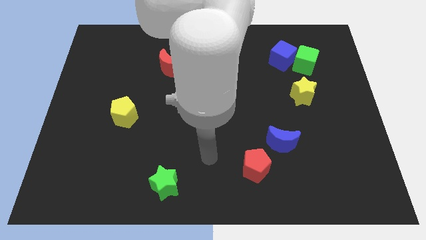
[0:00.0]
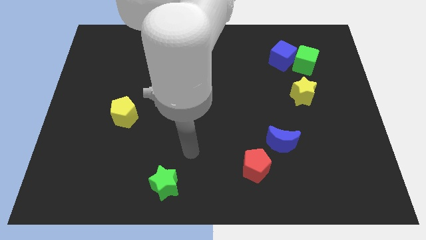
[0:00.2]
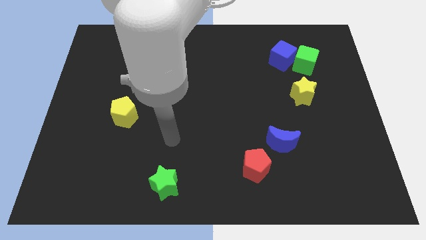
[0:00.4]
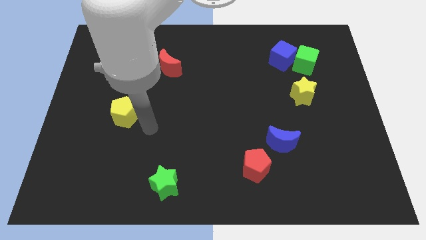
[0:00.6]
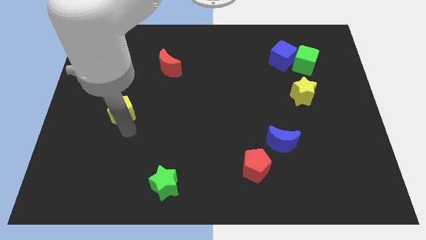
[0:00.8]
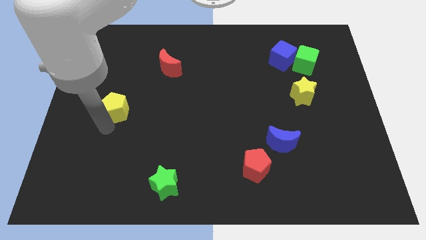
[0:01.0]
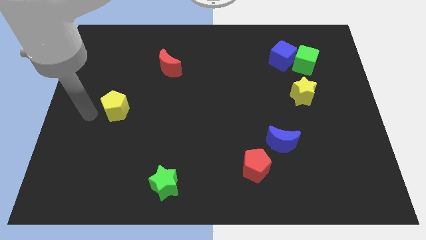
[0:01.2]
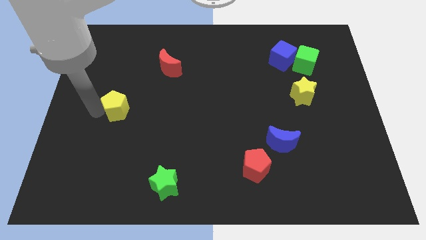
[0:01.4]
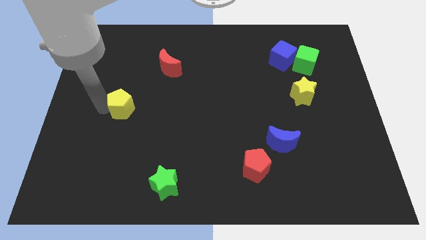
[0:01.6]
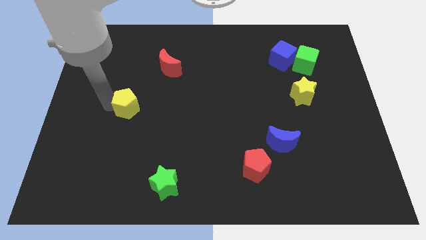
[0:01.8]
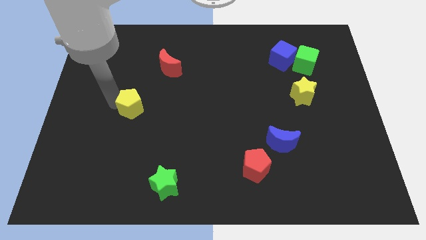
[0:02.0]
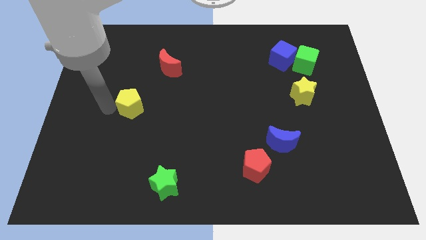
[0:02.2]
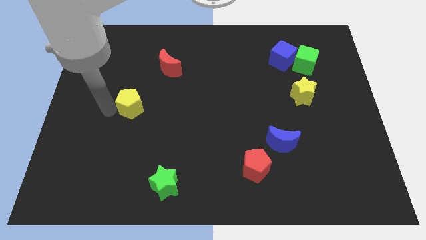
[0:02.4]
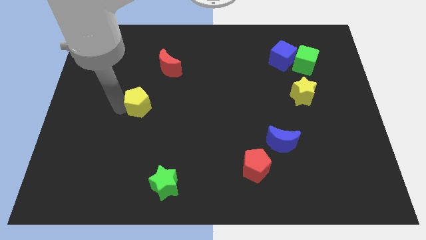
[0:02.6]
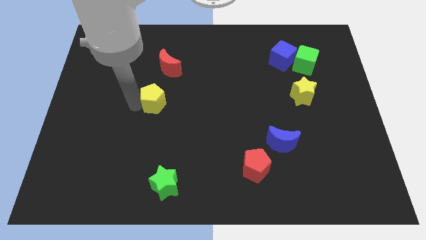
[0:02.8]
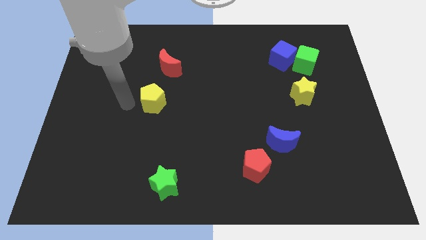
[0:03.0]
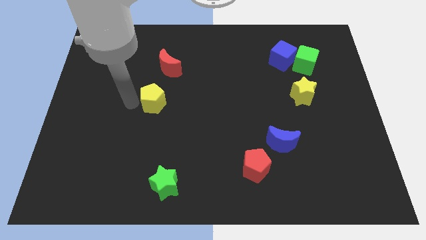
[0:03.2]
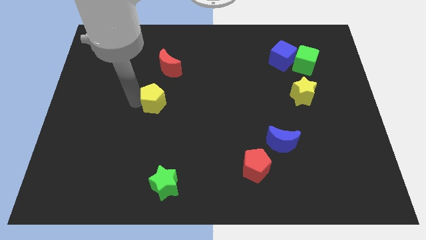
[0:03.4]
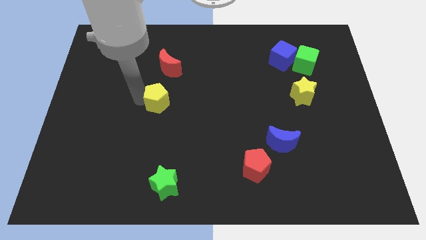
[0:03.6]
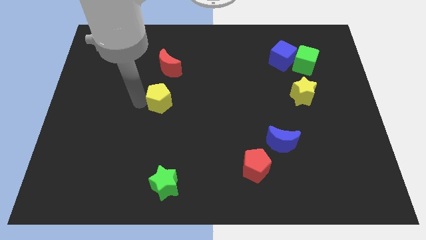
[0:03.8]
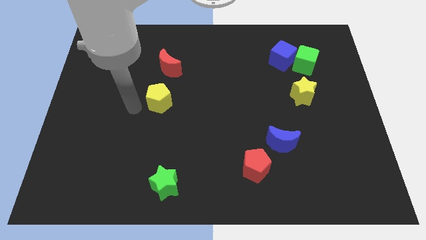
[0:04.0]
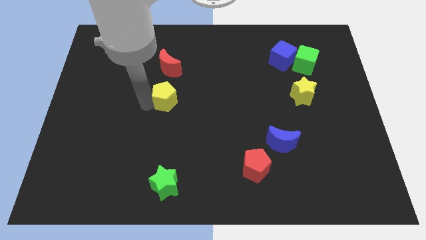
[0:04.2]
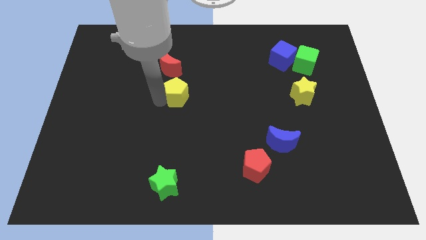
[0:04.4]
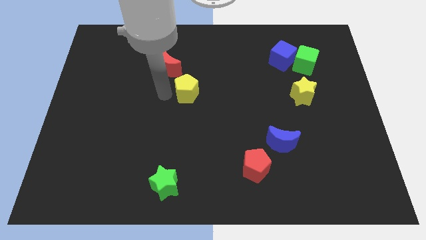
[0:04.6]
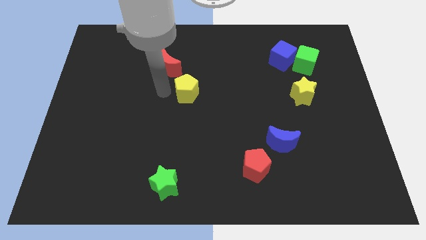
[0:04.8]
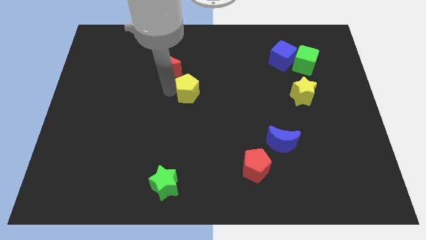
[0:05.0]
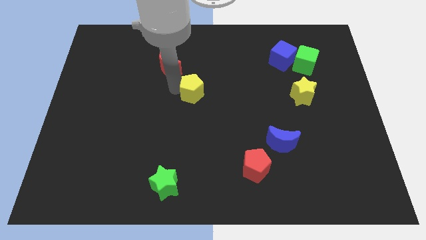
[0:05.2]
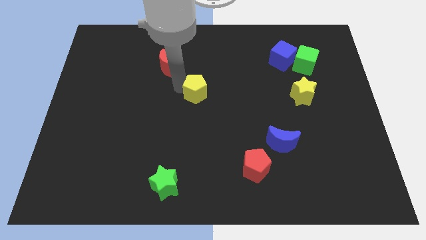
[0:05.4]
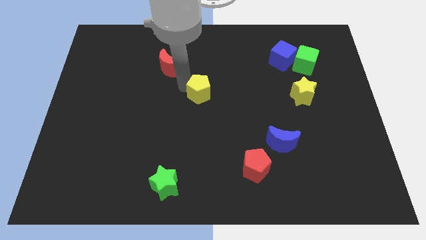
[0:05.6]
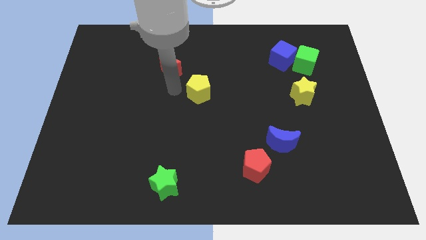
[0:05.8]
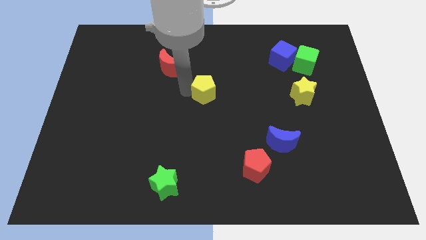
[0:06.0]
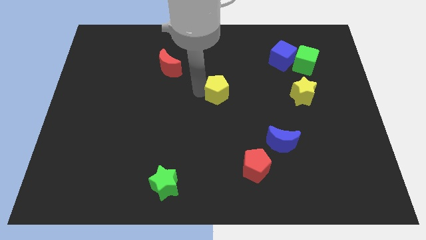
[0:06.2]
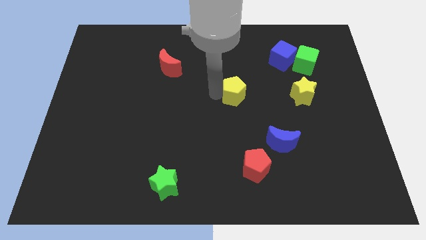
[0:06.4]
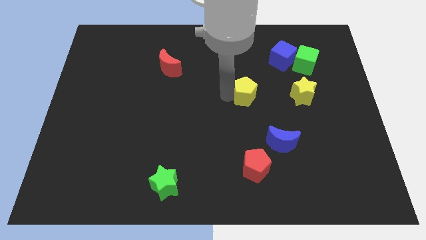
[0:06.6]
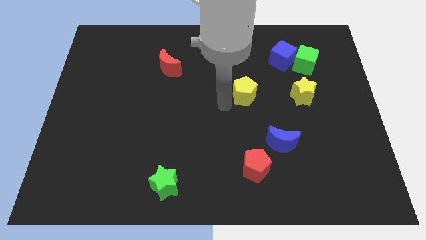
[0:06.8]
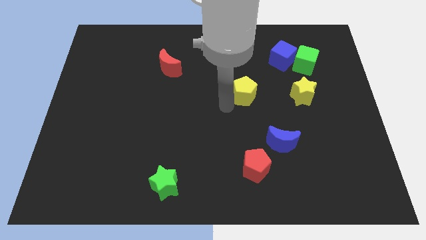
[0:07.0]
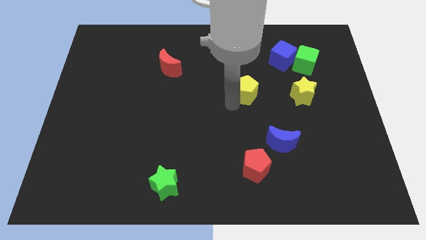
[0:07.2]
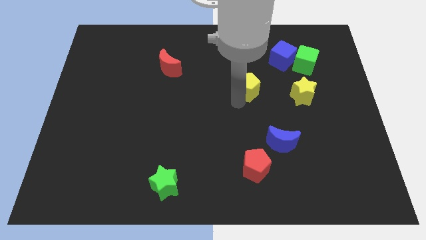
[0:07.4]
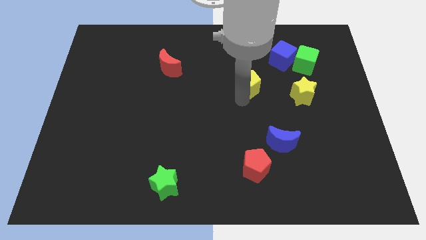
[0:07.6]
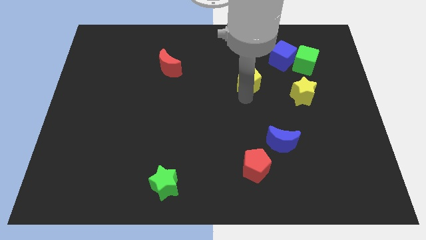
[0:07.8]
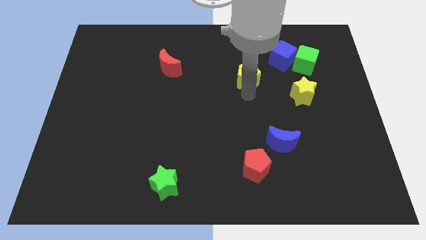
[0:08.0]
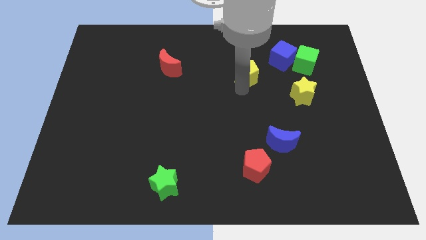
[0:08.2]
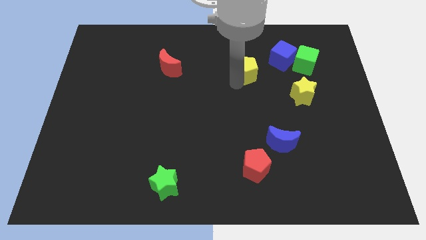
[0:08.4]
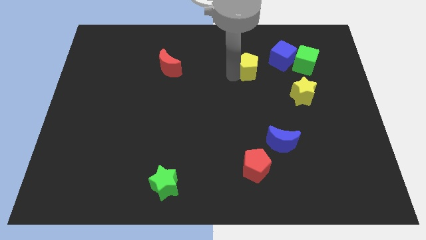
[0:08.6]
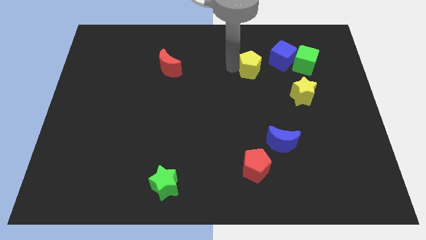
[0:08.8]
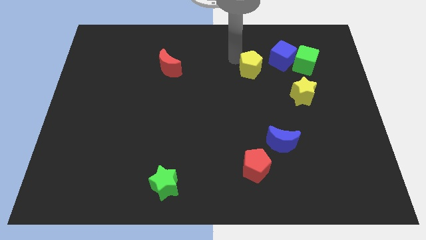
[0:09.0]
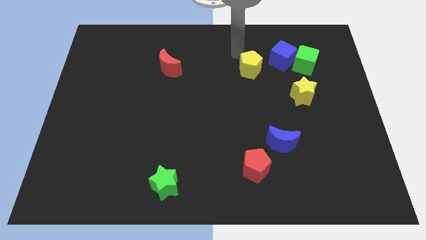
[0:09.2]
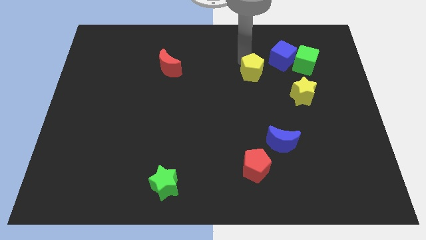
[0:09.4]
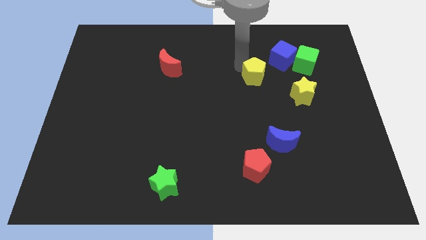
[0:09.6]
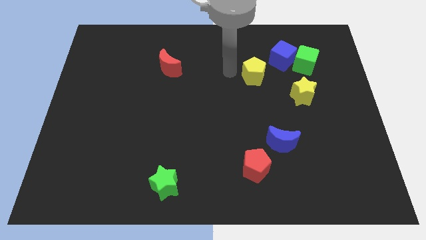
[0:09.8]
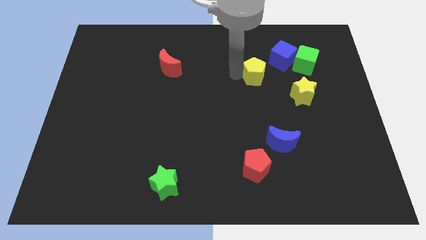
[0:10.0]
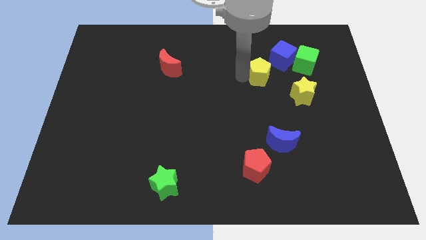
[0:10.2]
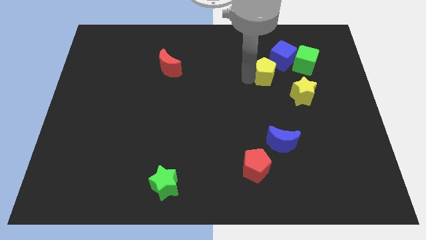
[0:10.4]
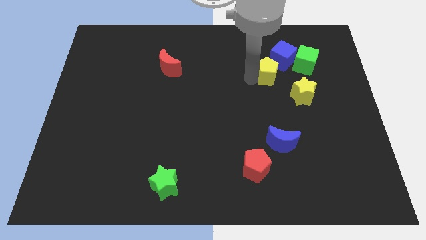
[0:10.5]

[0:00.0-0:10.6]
move the yellow pentagon to the bottom left side of the green cube

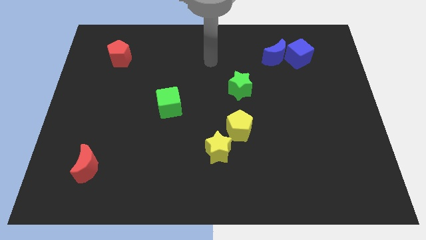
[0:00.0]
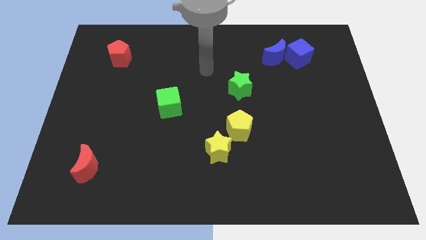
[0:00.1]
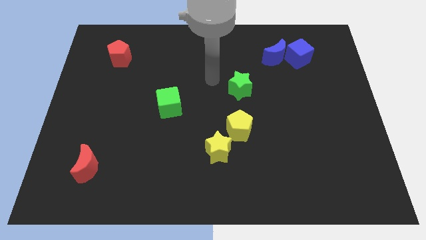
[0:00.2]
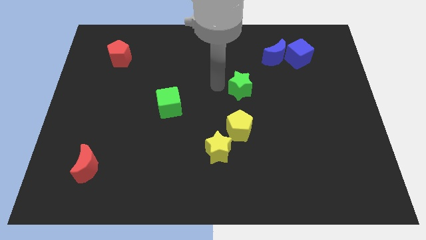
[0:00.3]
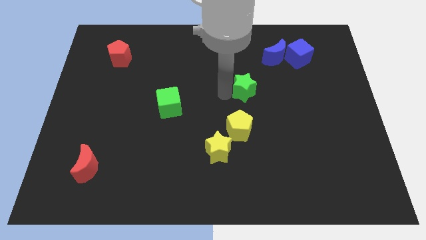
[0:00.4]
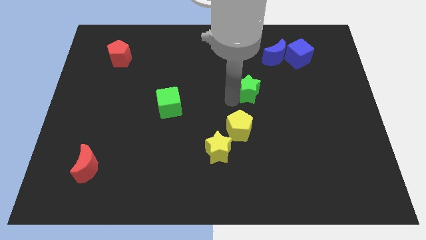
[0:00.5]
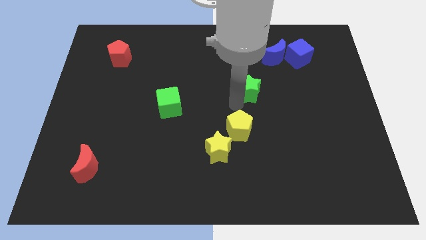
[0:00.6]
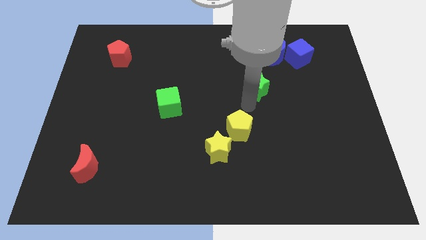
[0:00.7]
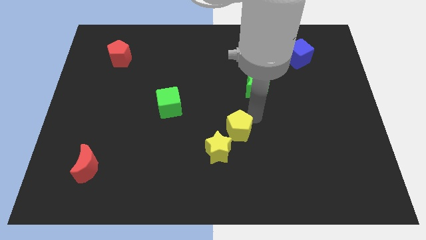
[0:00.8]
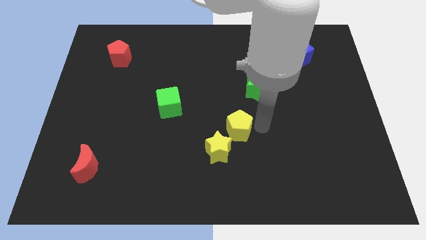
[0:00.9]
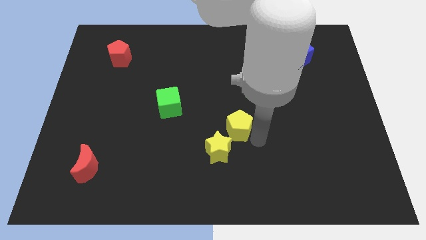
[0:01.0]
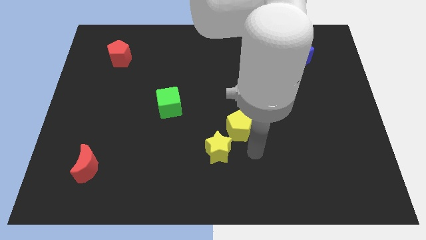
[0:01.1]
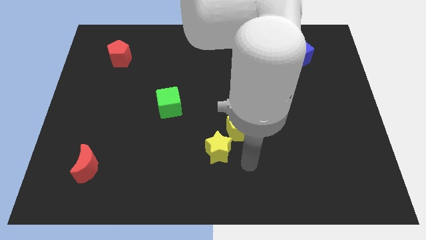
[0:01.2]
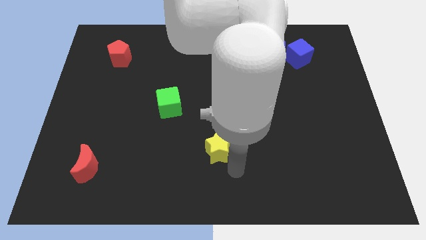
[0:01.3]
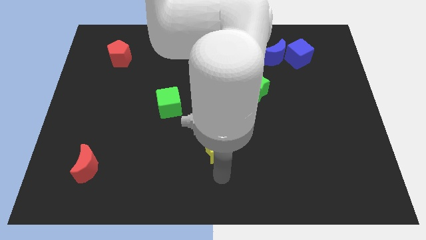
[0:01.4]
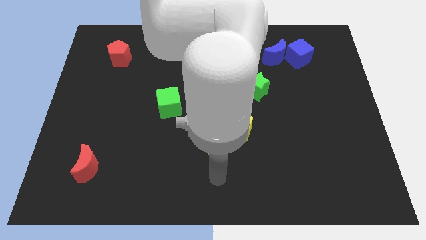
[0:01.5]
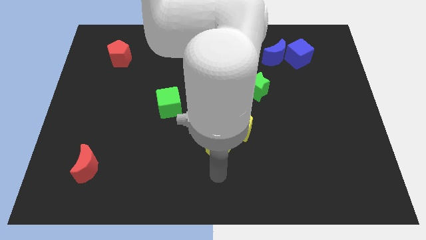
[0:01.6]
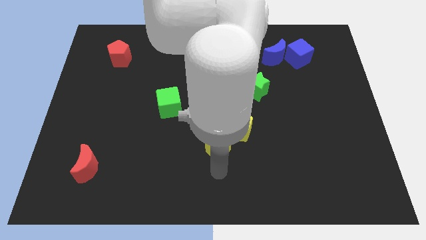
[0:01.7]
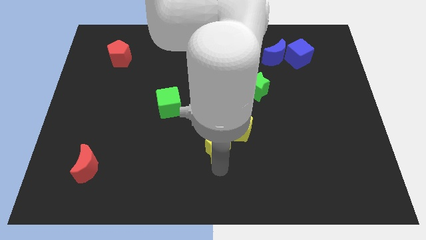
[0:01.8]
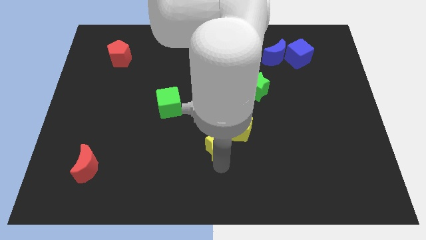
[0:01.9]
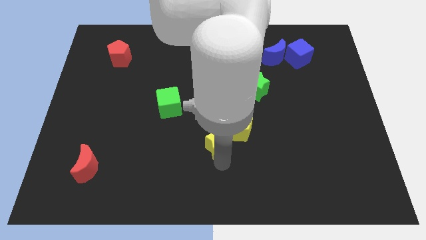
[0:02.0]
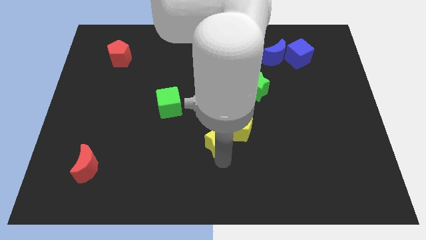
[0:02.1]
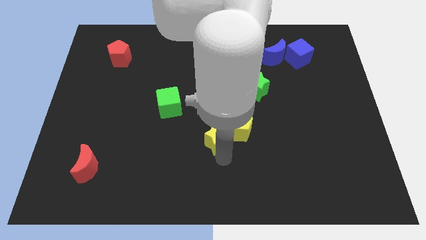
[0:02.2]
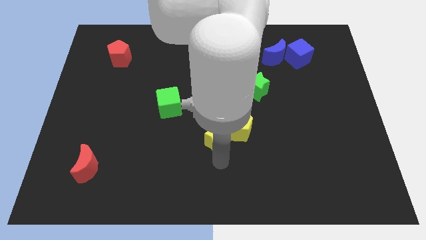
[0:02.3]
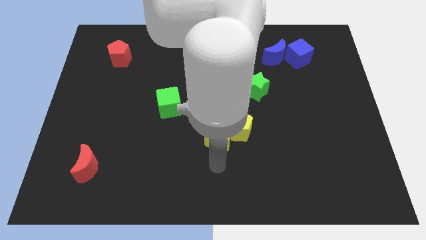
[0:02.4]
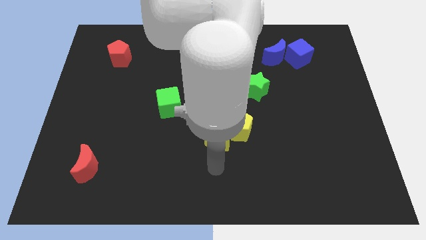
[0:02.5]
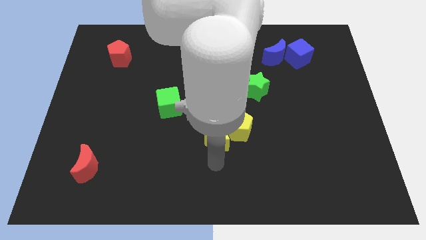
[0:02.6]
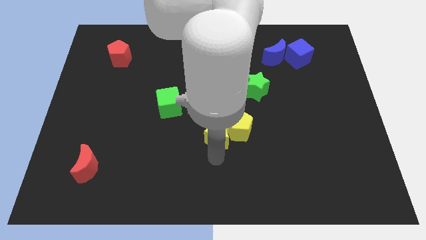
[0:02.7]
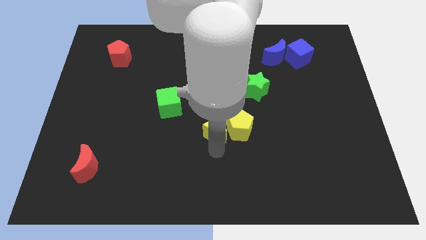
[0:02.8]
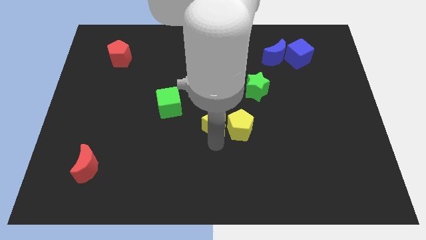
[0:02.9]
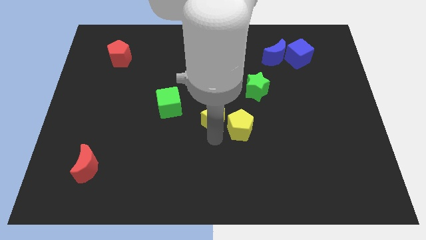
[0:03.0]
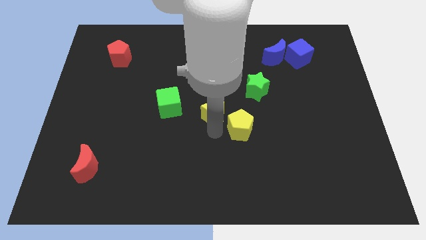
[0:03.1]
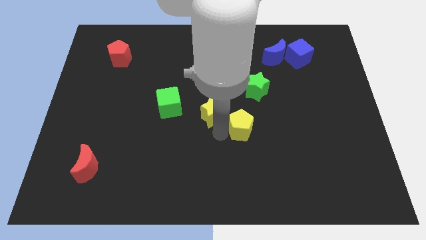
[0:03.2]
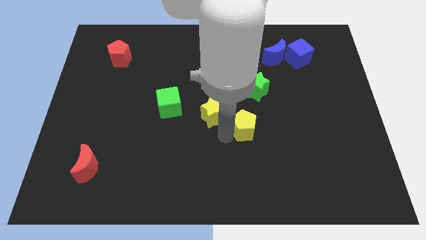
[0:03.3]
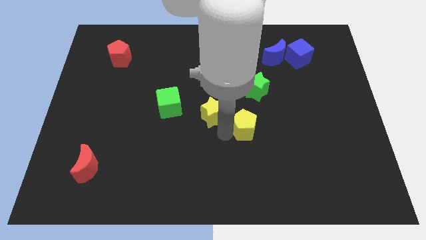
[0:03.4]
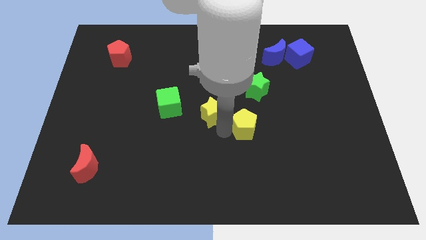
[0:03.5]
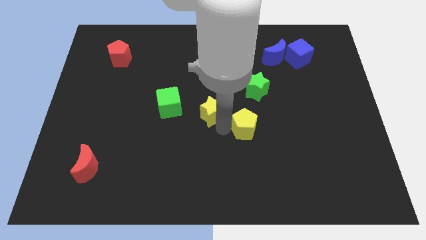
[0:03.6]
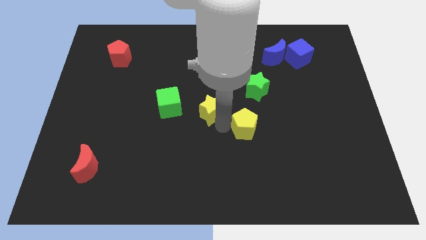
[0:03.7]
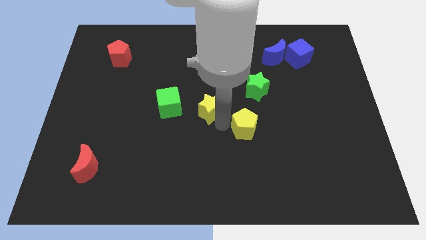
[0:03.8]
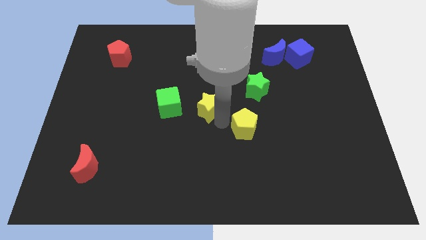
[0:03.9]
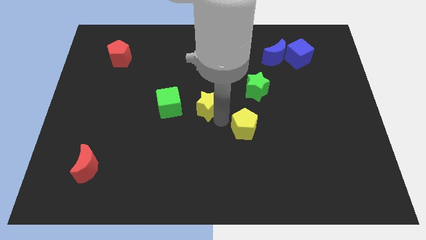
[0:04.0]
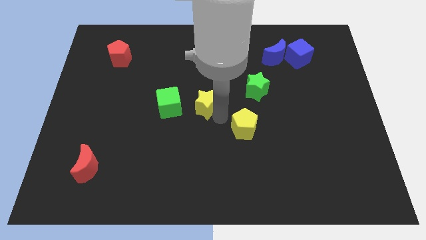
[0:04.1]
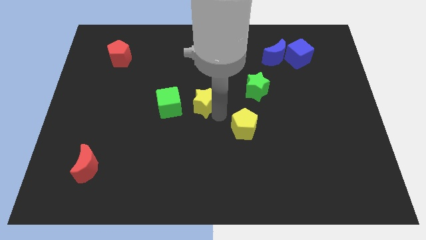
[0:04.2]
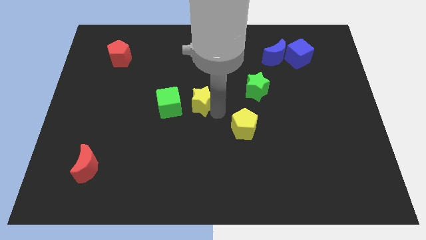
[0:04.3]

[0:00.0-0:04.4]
put the yellow star to the top right side of the green cube
